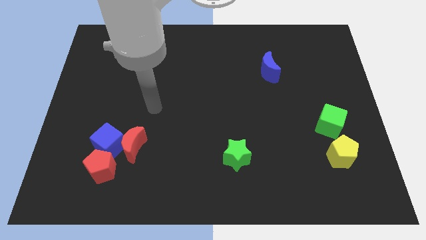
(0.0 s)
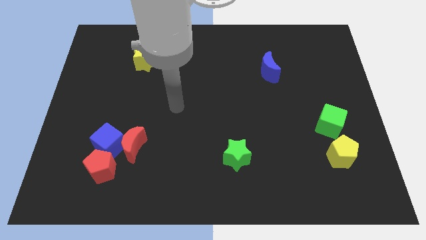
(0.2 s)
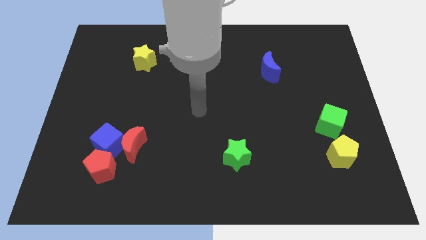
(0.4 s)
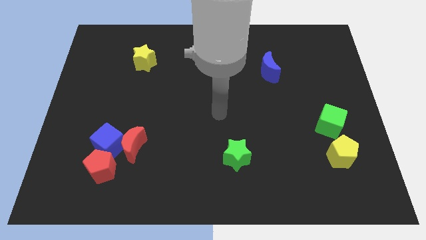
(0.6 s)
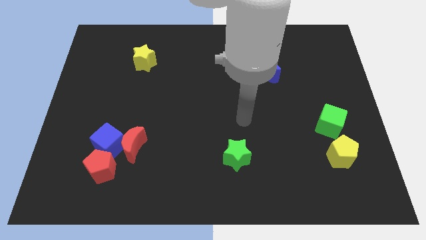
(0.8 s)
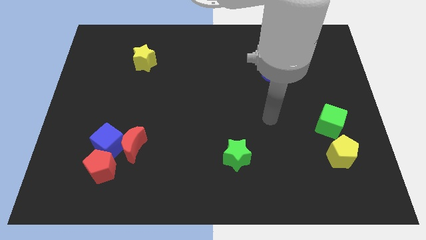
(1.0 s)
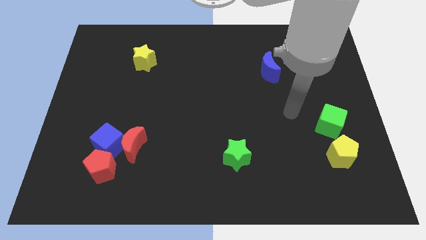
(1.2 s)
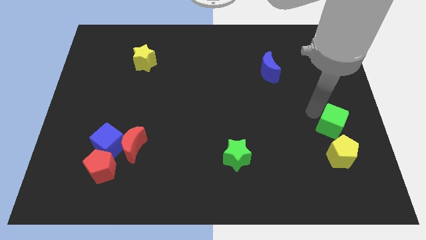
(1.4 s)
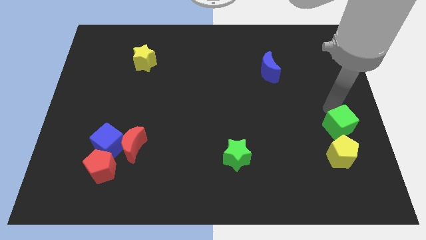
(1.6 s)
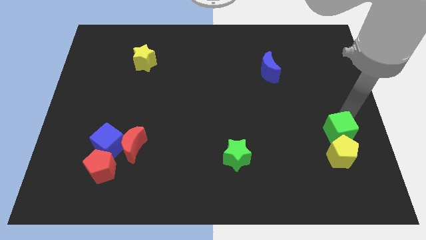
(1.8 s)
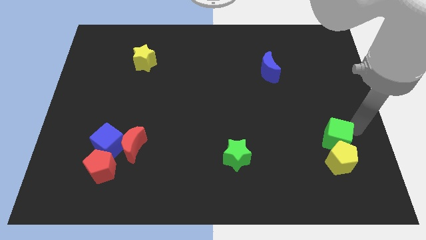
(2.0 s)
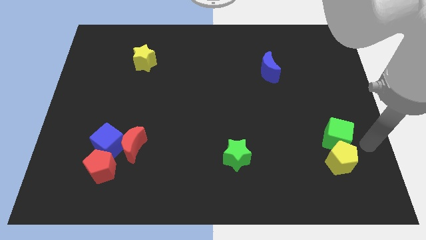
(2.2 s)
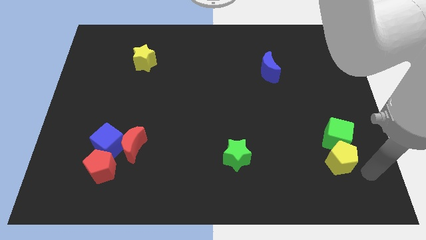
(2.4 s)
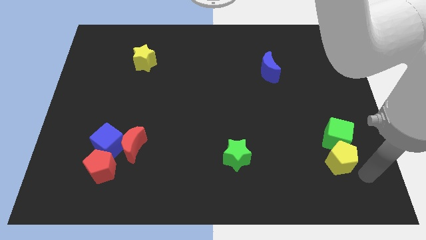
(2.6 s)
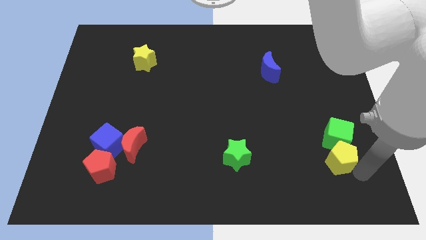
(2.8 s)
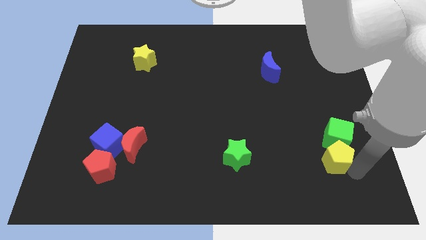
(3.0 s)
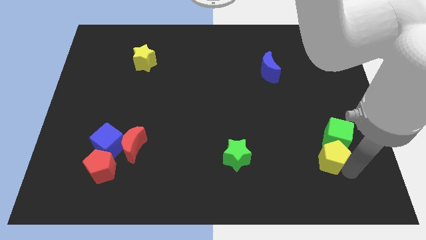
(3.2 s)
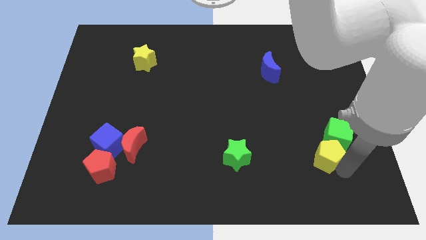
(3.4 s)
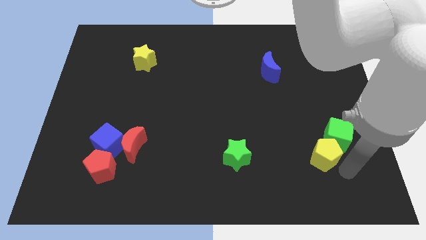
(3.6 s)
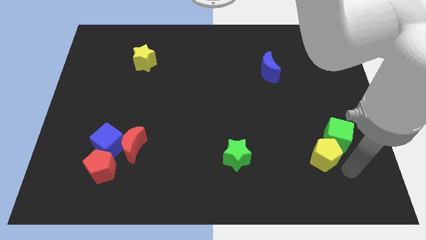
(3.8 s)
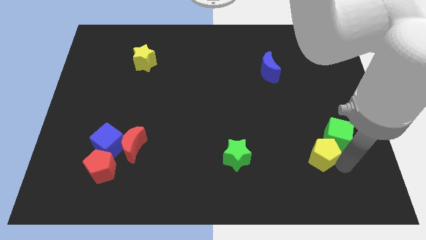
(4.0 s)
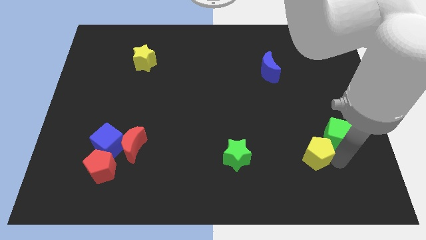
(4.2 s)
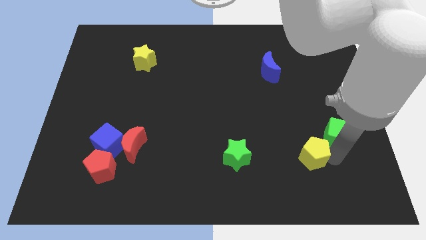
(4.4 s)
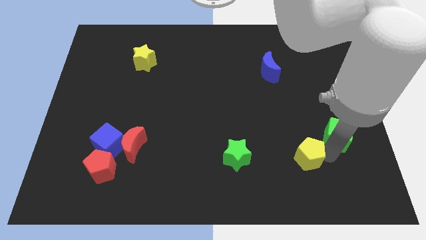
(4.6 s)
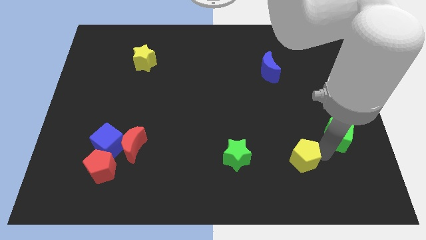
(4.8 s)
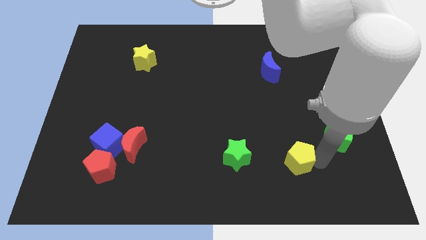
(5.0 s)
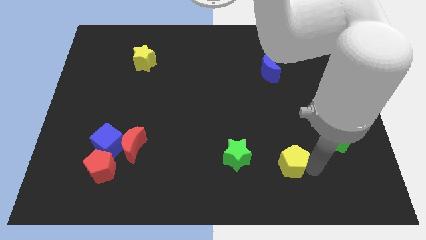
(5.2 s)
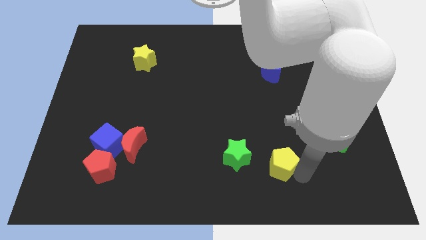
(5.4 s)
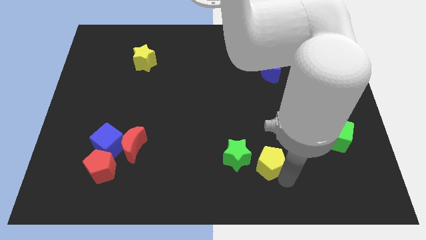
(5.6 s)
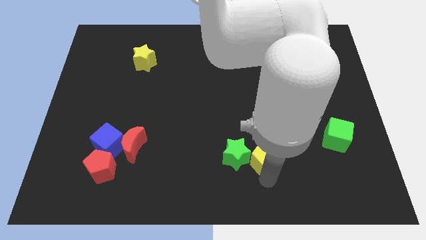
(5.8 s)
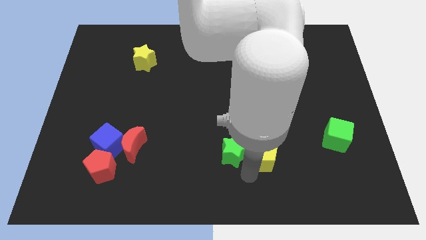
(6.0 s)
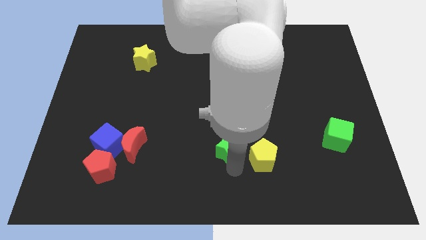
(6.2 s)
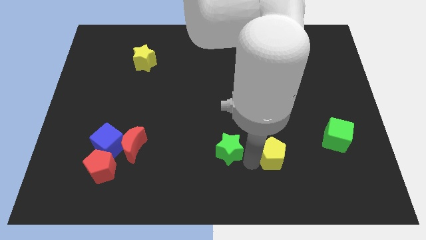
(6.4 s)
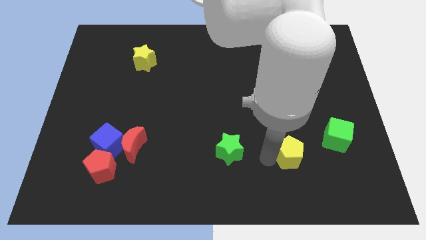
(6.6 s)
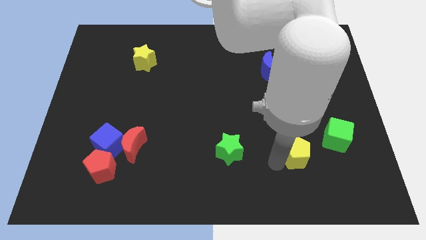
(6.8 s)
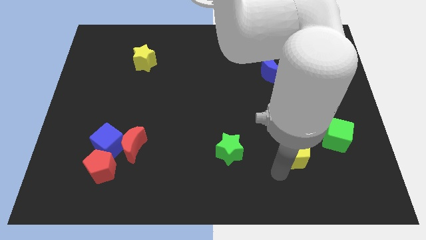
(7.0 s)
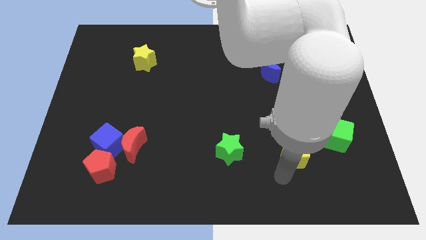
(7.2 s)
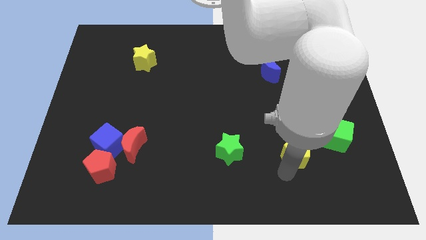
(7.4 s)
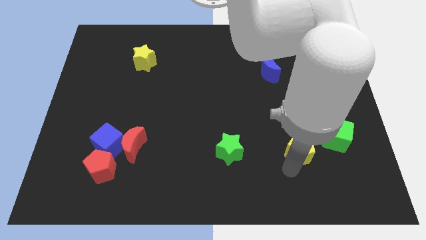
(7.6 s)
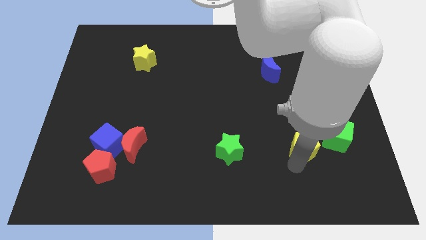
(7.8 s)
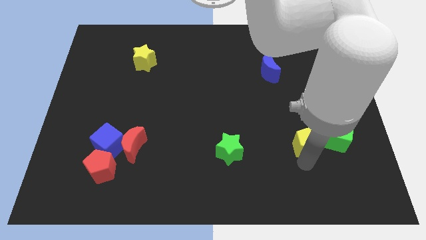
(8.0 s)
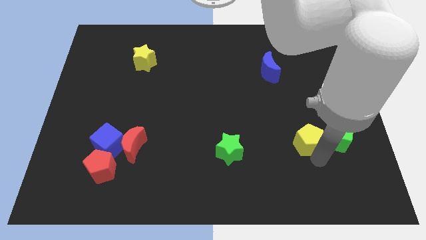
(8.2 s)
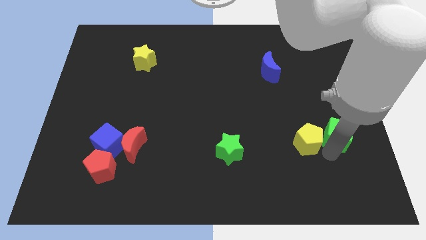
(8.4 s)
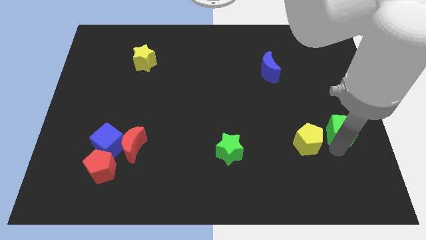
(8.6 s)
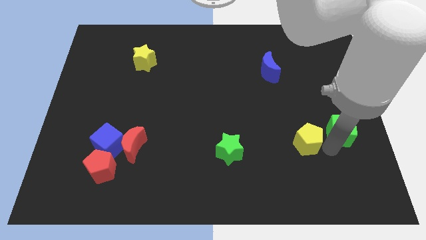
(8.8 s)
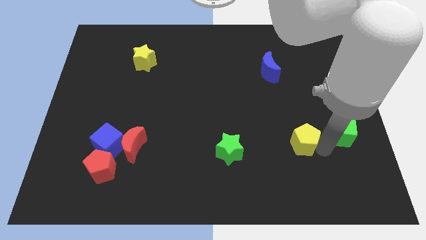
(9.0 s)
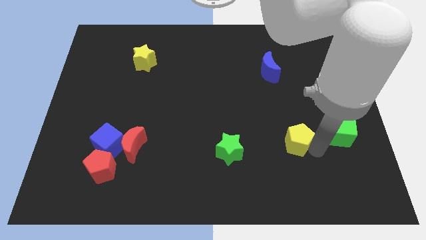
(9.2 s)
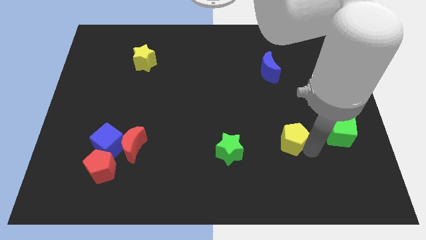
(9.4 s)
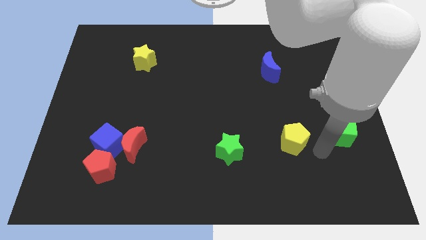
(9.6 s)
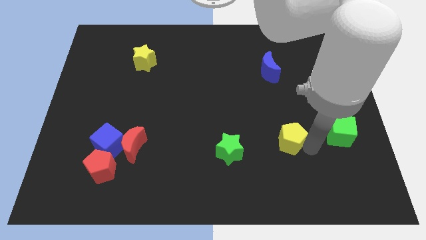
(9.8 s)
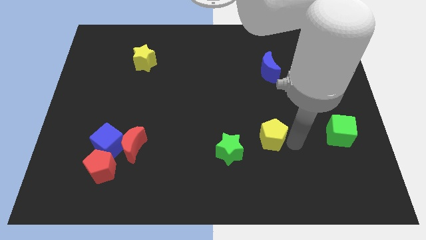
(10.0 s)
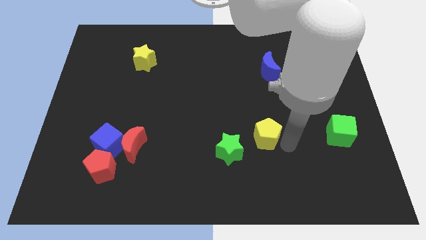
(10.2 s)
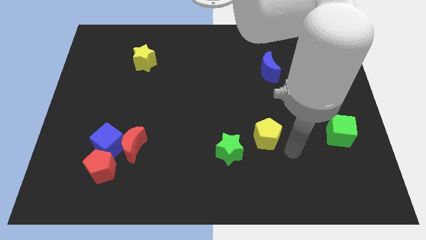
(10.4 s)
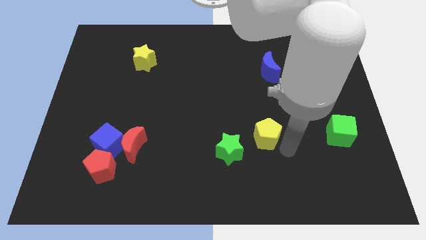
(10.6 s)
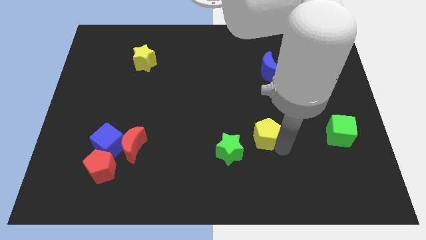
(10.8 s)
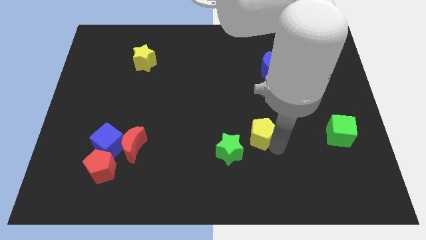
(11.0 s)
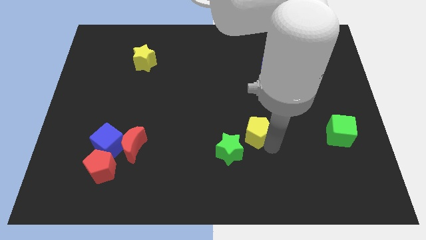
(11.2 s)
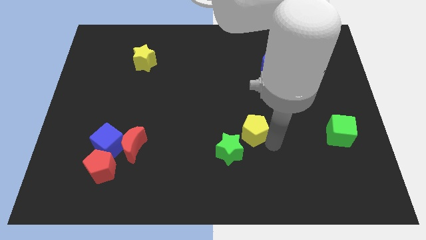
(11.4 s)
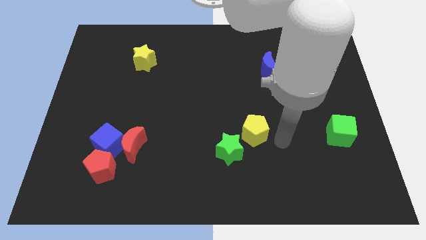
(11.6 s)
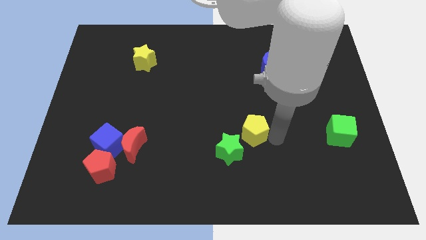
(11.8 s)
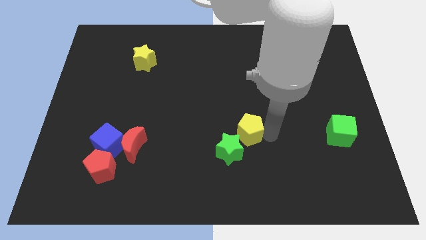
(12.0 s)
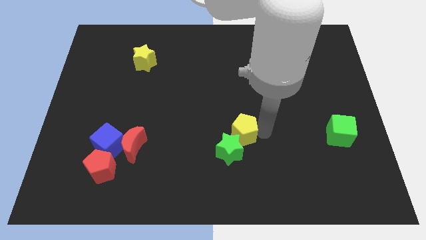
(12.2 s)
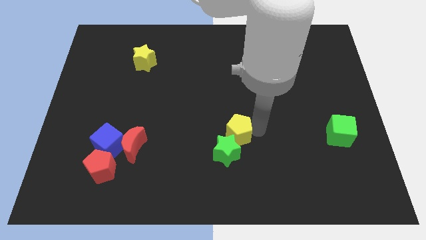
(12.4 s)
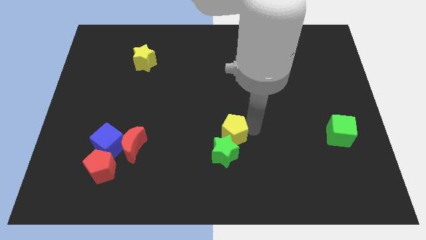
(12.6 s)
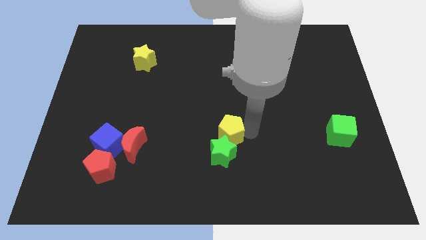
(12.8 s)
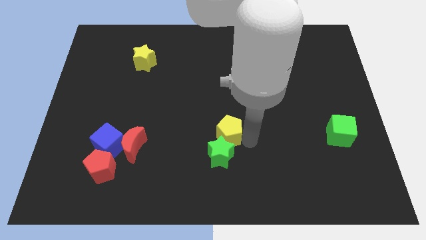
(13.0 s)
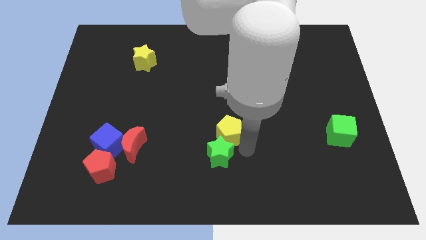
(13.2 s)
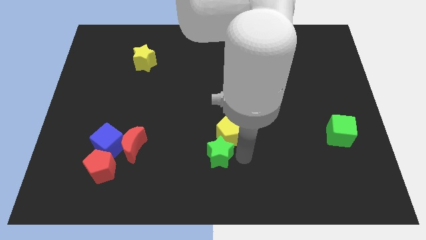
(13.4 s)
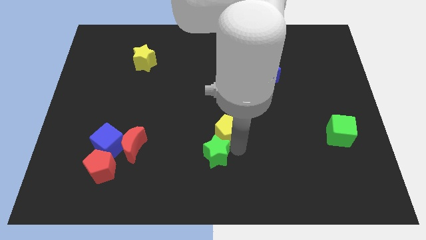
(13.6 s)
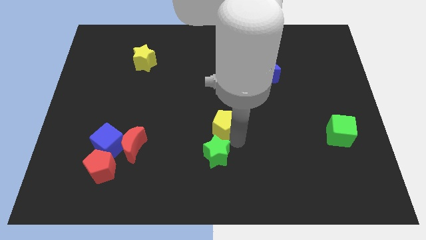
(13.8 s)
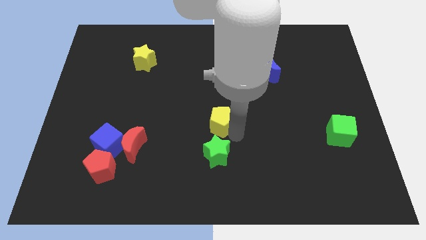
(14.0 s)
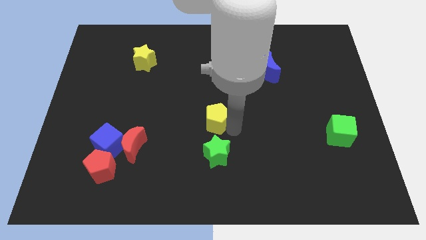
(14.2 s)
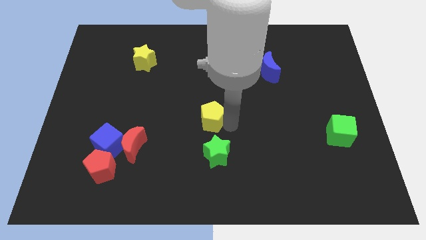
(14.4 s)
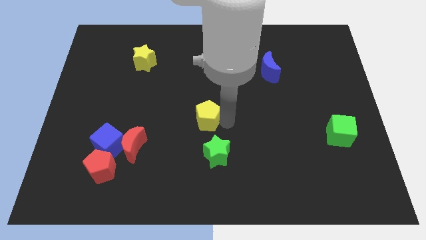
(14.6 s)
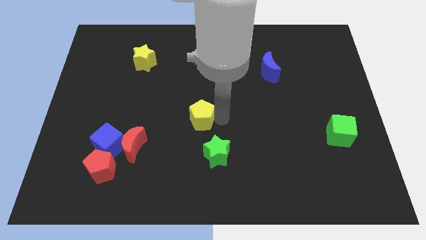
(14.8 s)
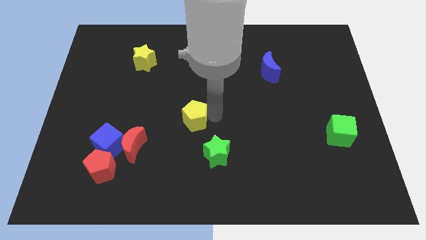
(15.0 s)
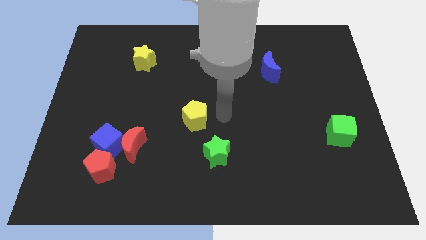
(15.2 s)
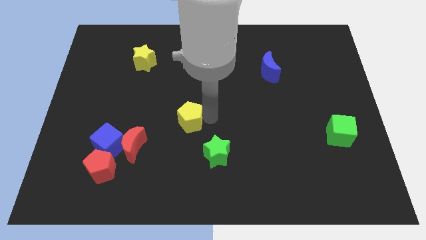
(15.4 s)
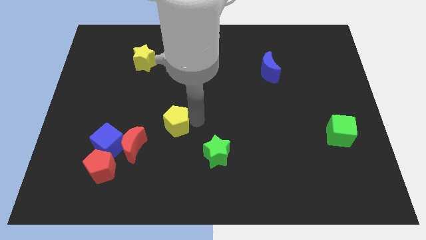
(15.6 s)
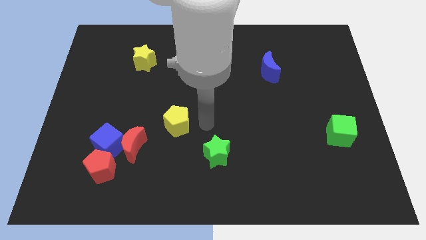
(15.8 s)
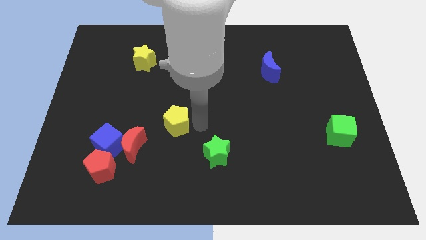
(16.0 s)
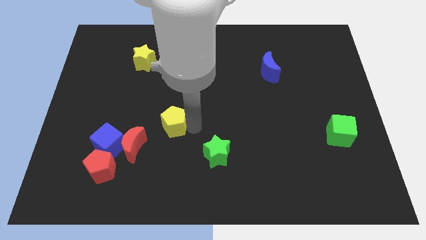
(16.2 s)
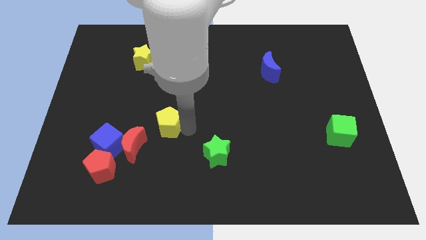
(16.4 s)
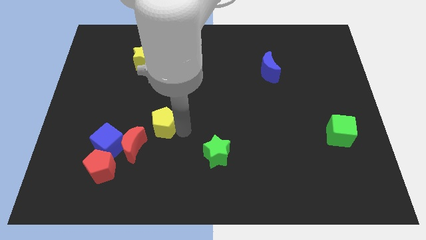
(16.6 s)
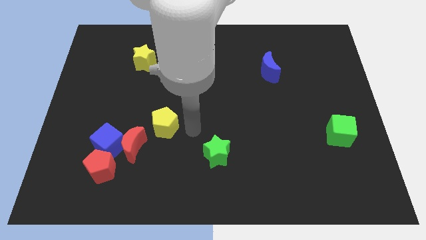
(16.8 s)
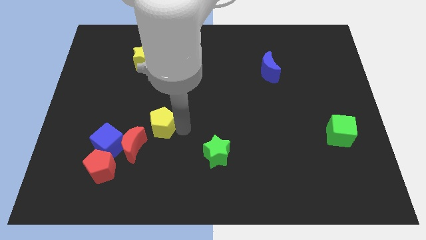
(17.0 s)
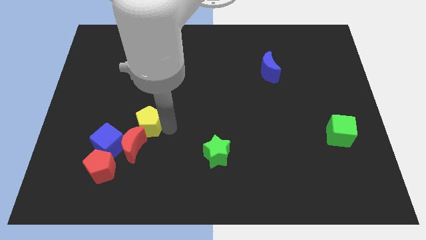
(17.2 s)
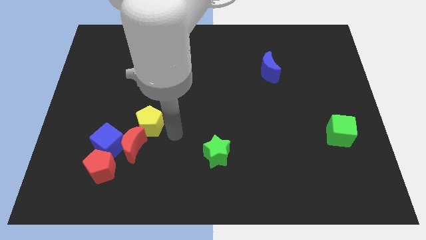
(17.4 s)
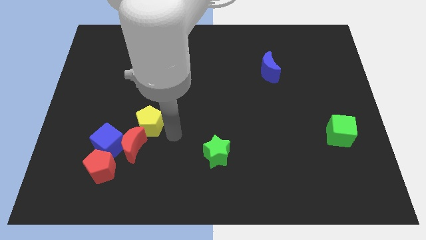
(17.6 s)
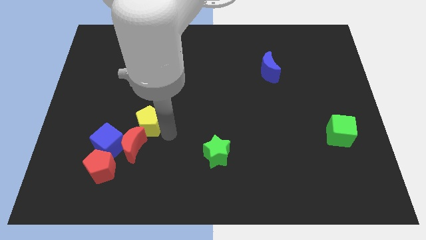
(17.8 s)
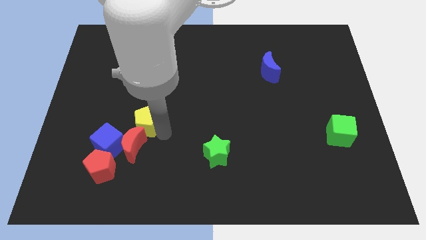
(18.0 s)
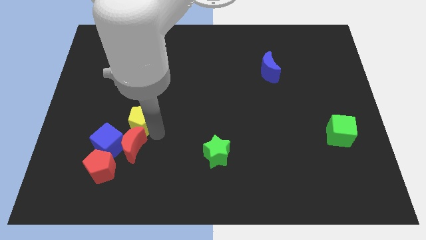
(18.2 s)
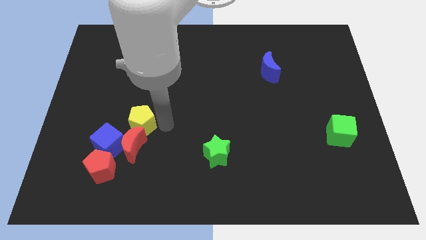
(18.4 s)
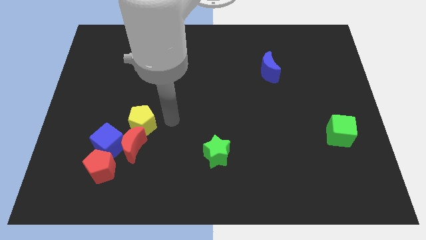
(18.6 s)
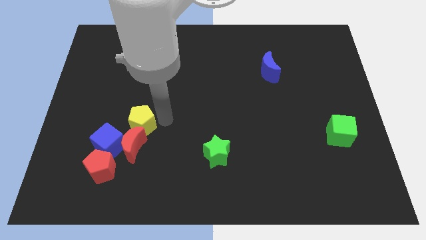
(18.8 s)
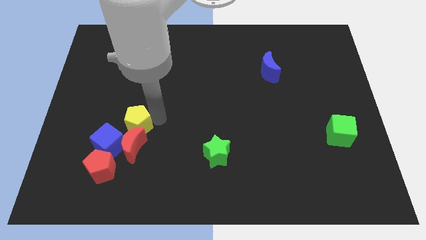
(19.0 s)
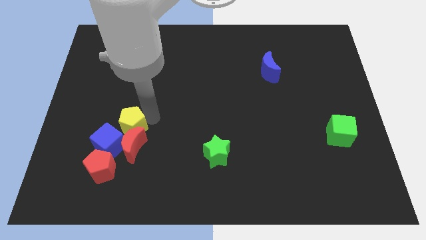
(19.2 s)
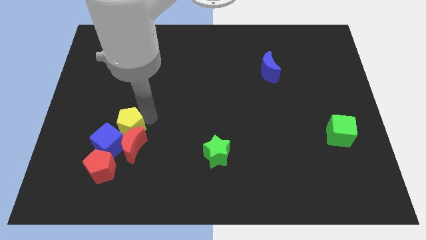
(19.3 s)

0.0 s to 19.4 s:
slide the yellow pentagon close to the blue cube
